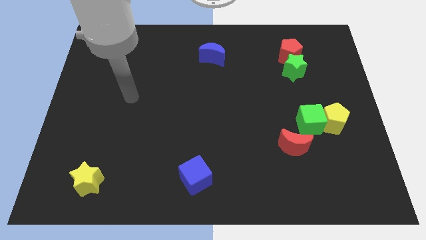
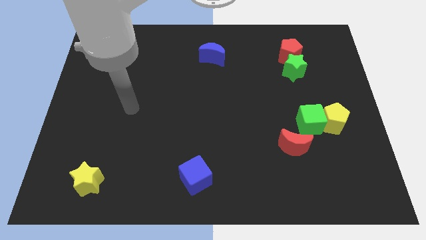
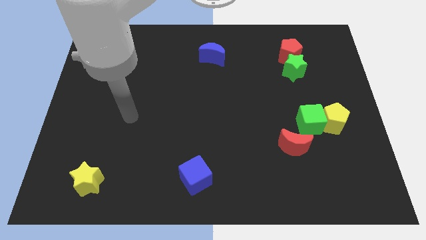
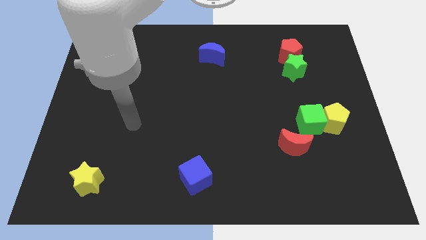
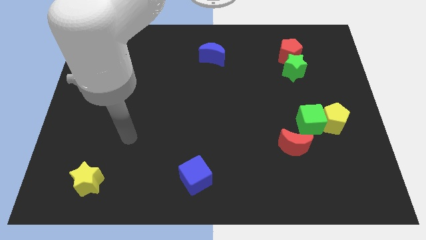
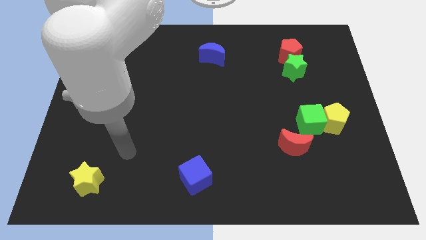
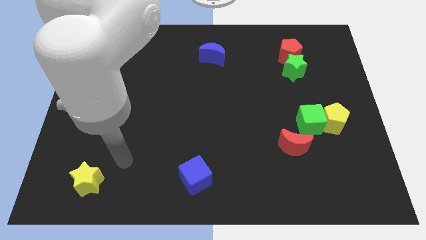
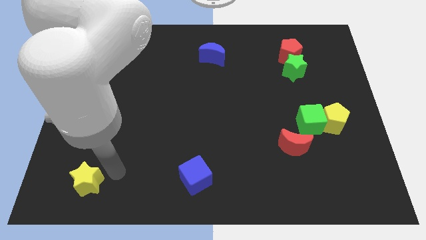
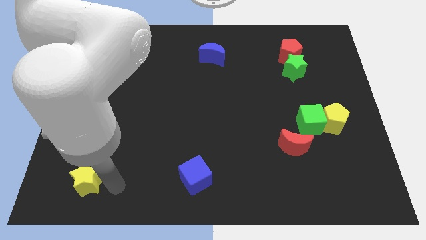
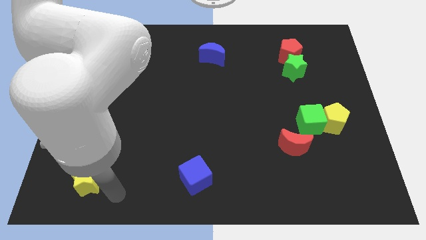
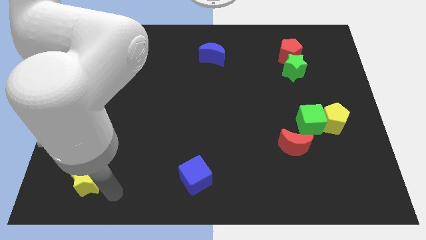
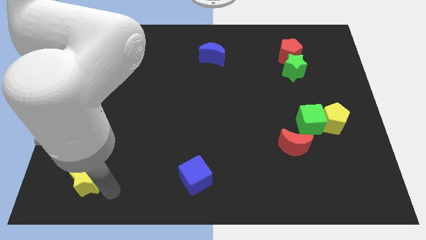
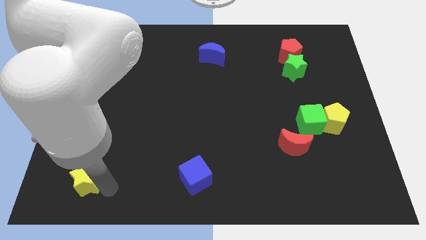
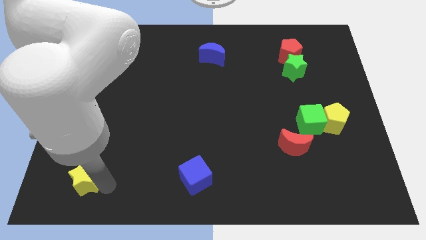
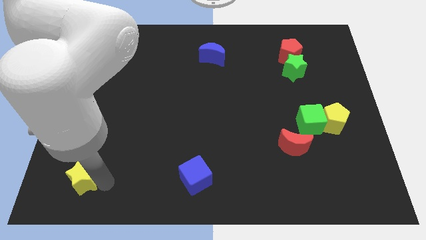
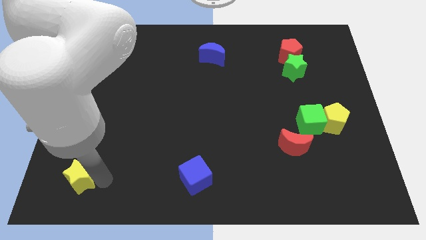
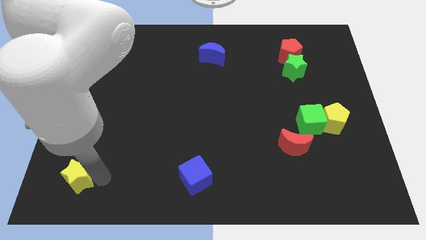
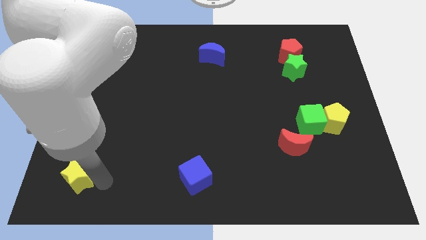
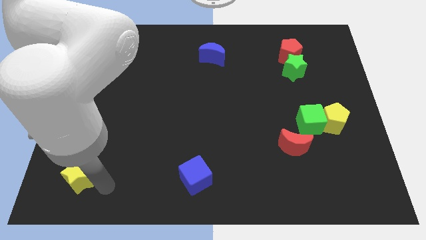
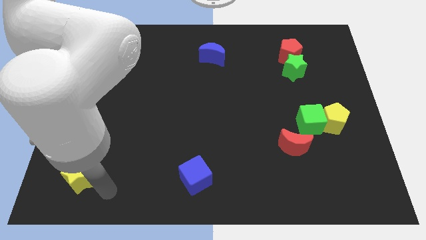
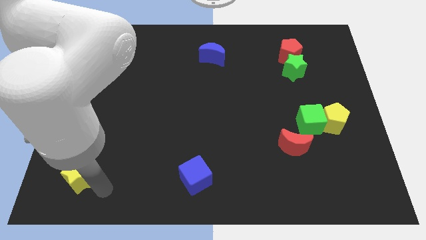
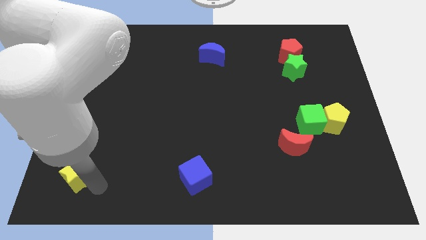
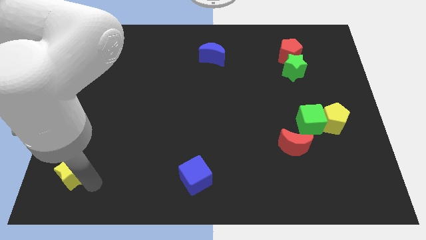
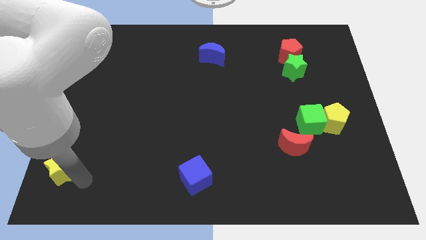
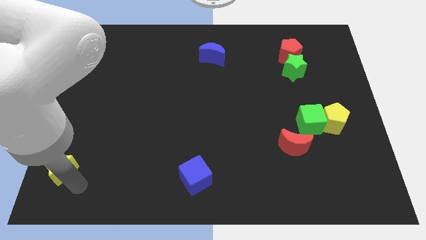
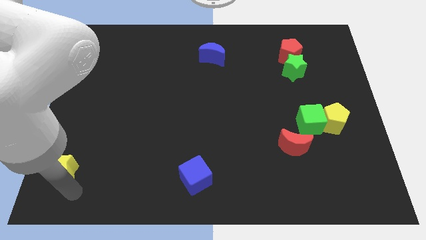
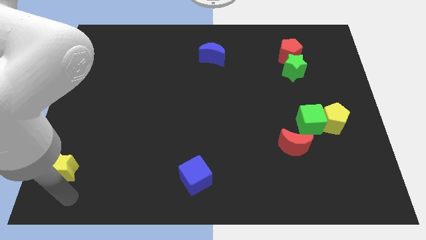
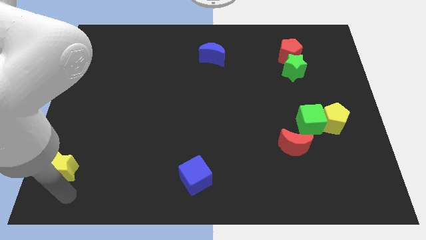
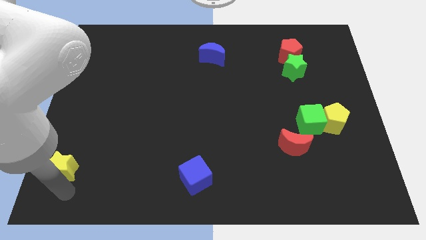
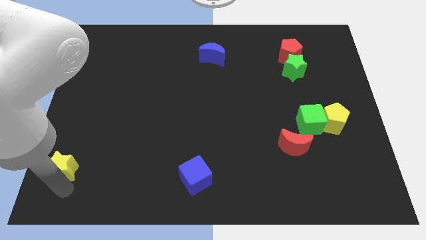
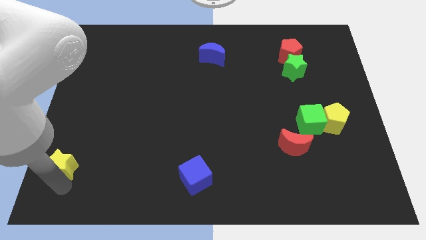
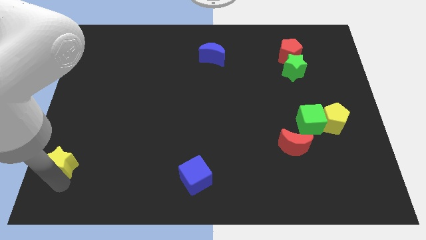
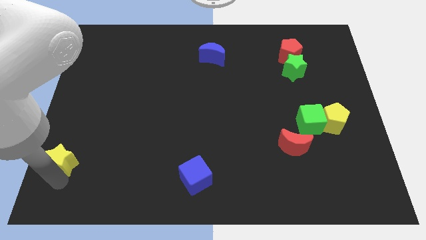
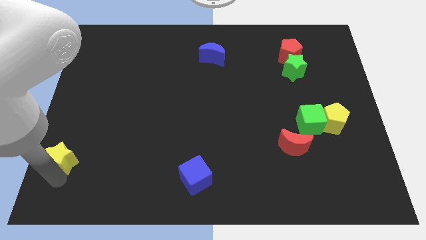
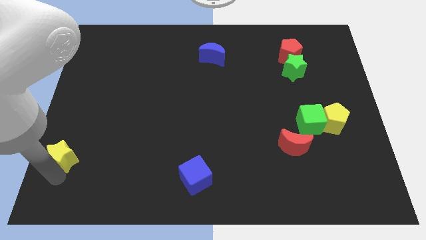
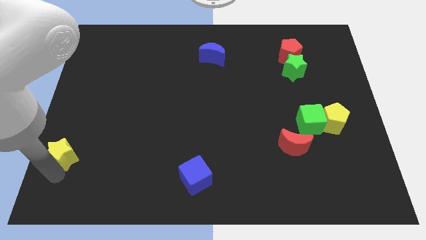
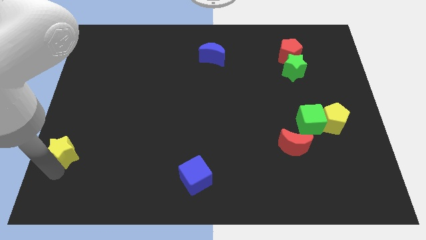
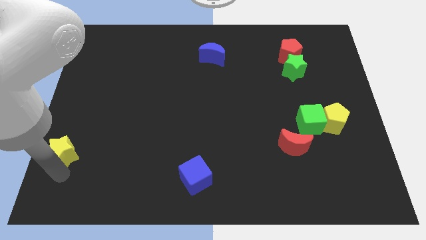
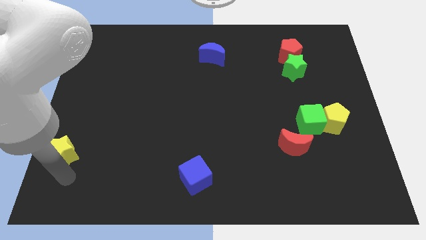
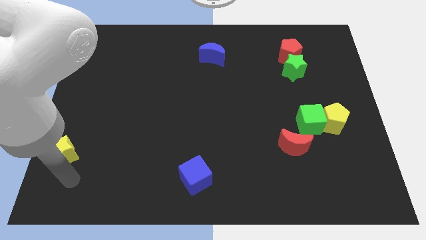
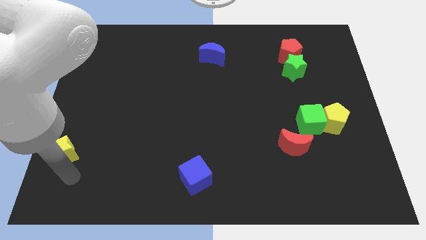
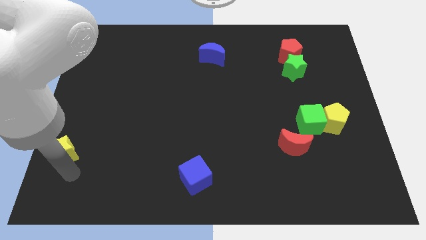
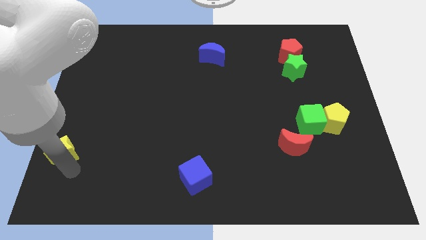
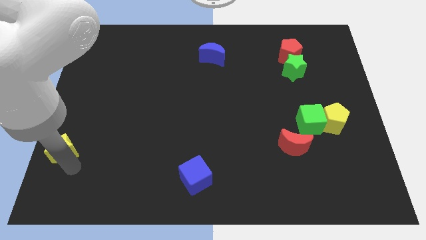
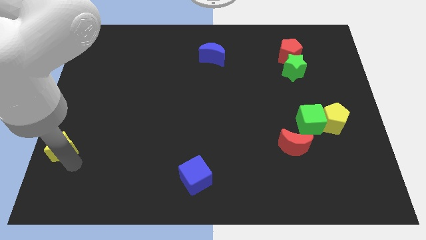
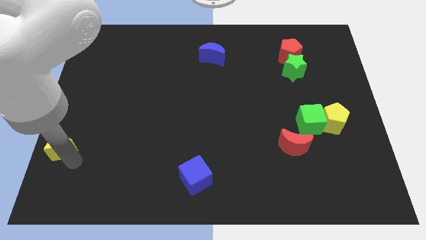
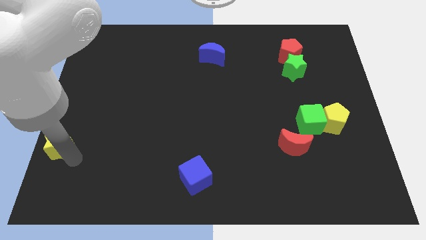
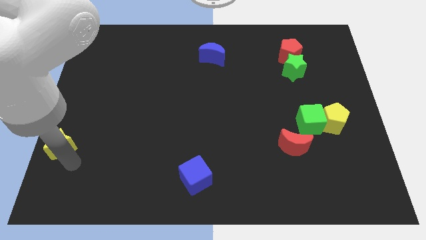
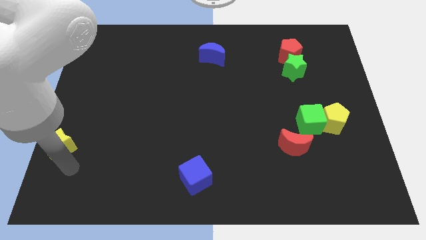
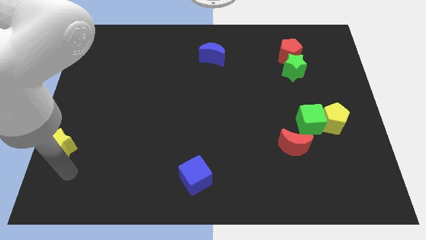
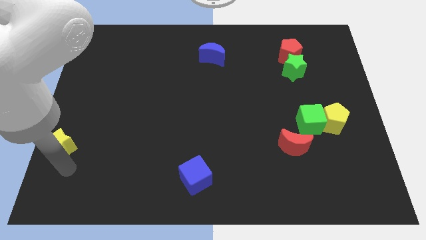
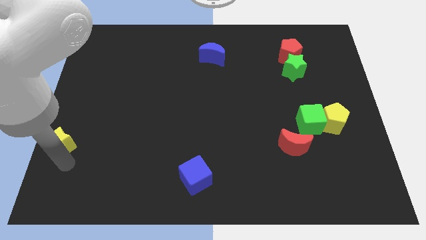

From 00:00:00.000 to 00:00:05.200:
put the yellow star to the left side of the board
